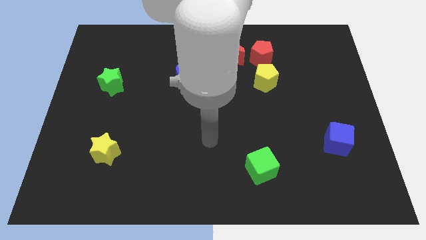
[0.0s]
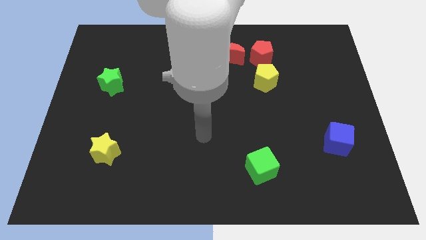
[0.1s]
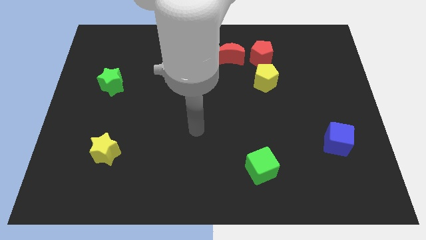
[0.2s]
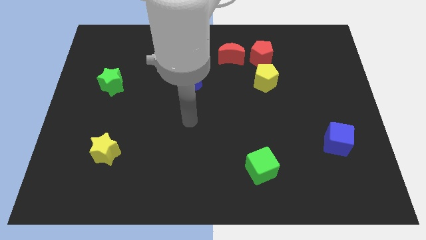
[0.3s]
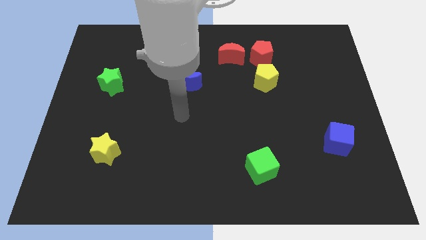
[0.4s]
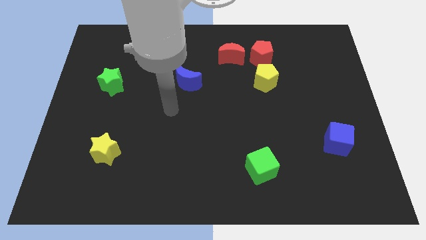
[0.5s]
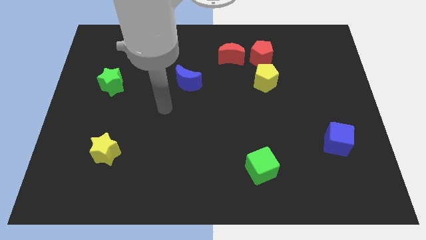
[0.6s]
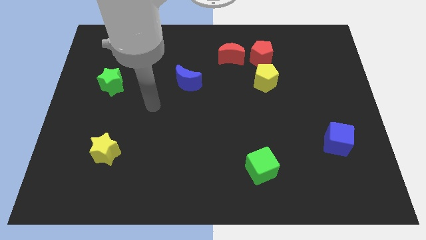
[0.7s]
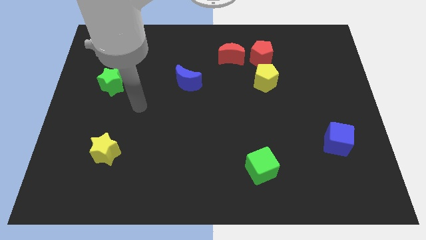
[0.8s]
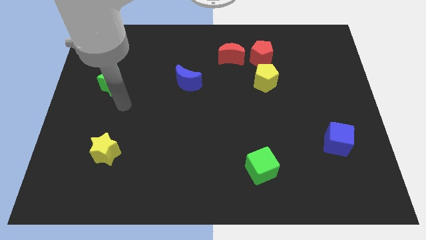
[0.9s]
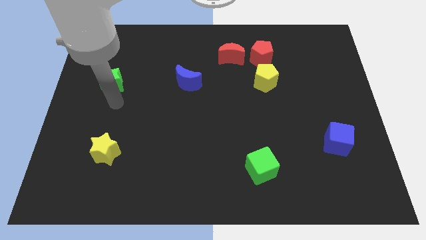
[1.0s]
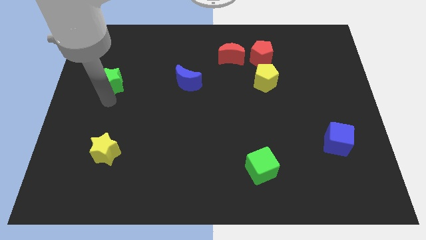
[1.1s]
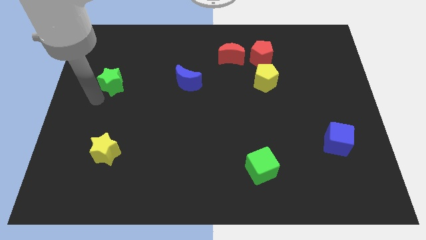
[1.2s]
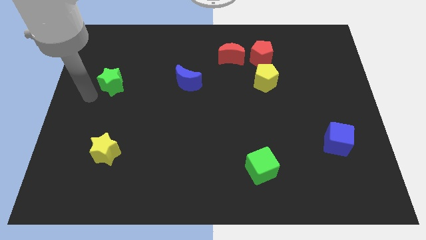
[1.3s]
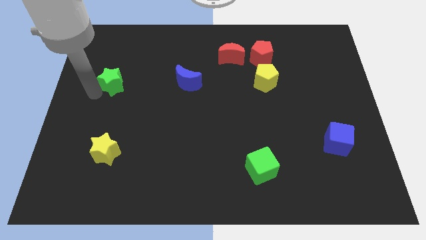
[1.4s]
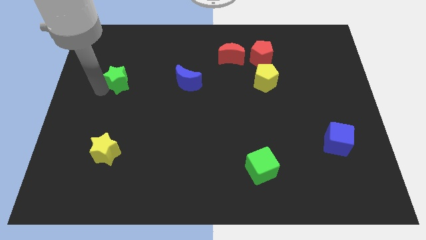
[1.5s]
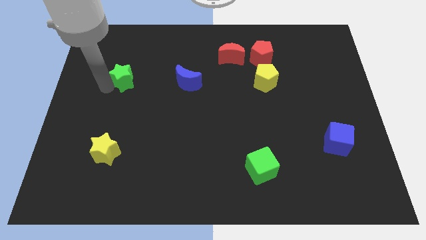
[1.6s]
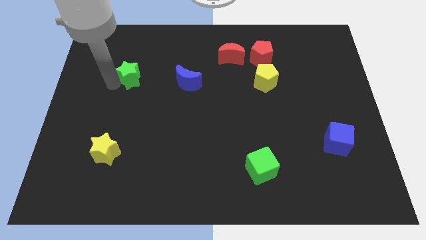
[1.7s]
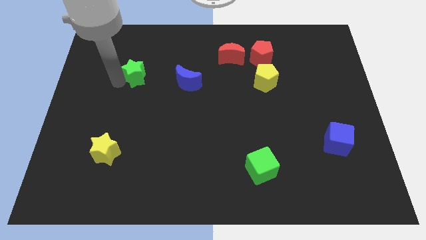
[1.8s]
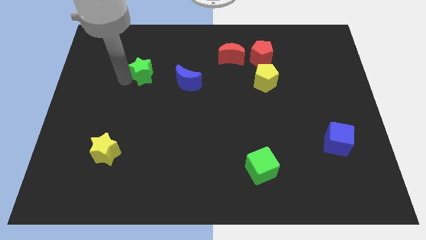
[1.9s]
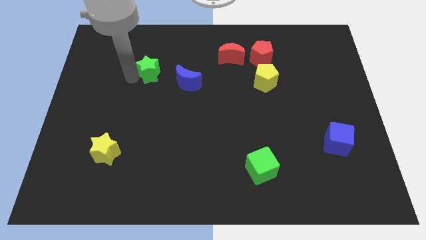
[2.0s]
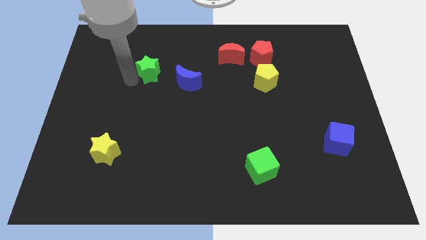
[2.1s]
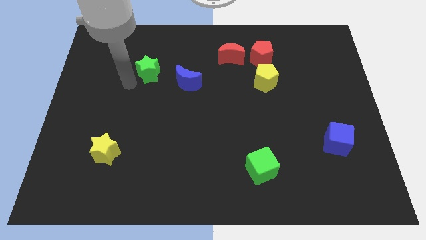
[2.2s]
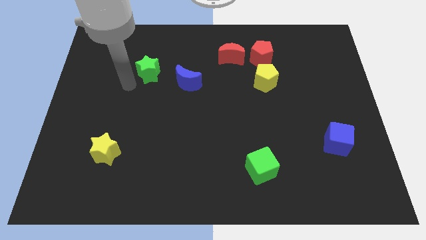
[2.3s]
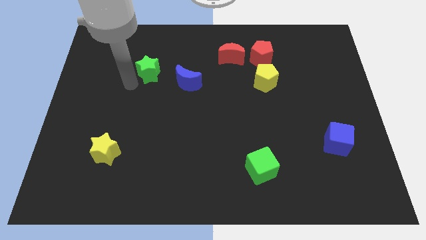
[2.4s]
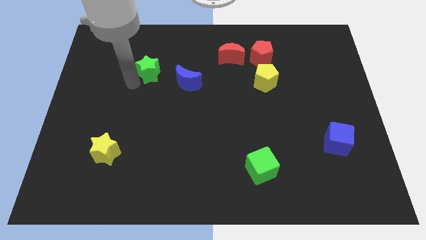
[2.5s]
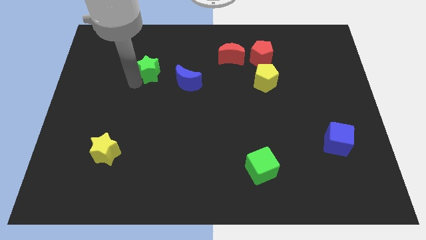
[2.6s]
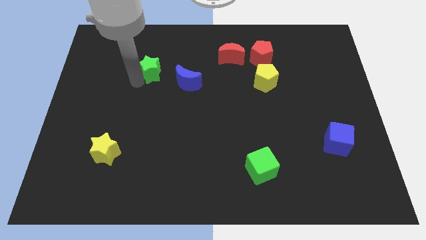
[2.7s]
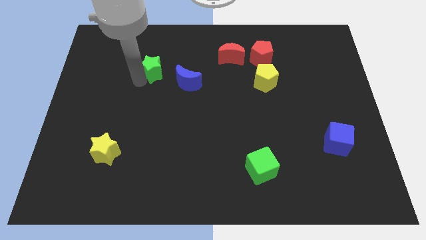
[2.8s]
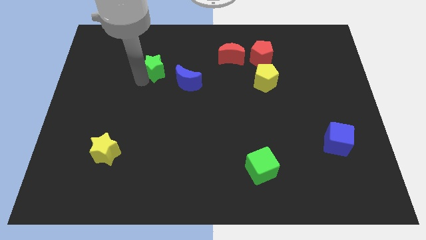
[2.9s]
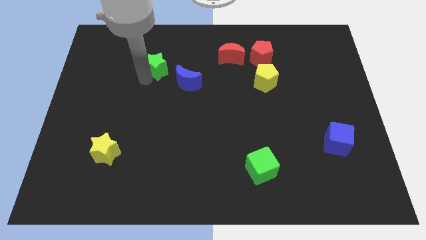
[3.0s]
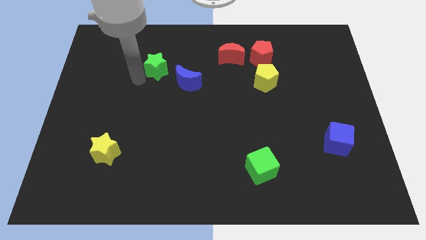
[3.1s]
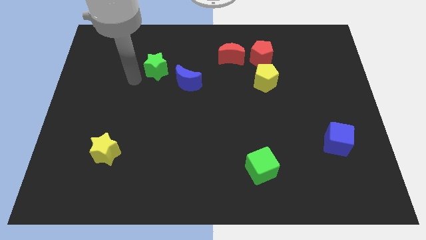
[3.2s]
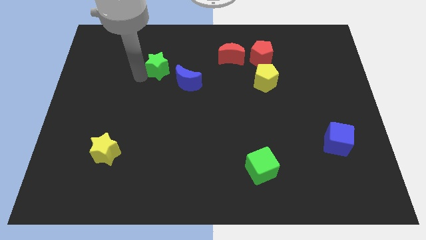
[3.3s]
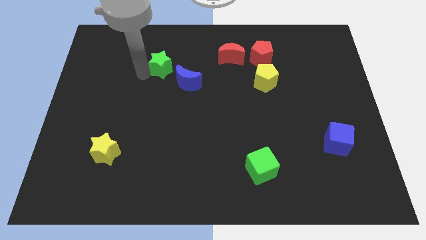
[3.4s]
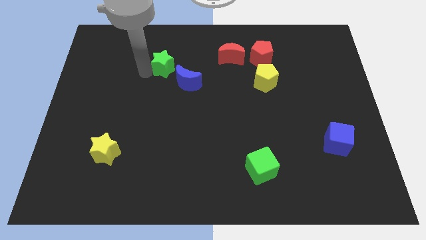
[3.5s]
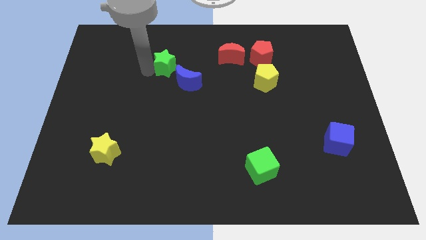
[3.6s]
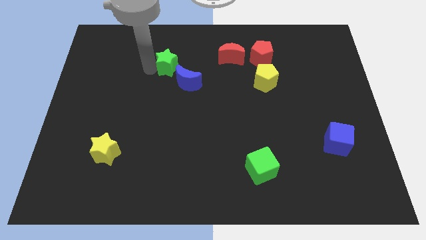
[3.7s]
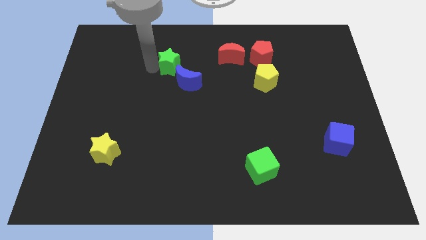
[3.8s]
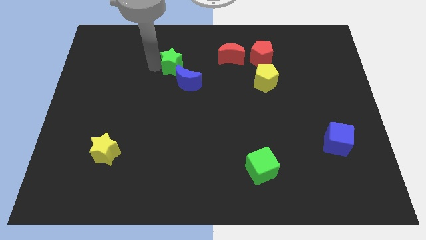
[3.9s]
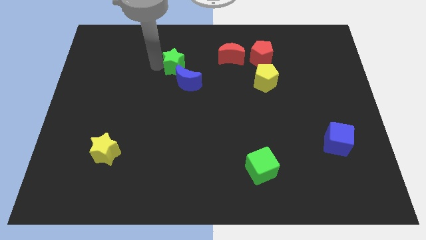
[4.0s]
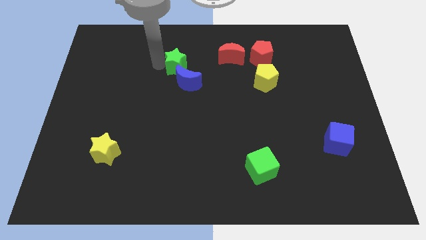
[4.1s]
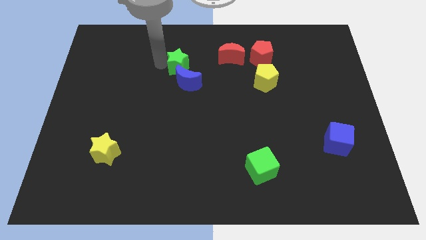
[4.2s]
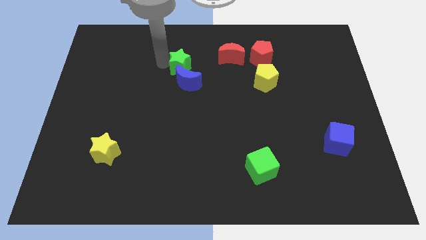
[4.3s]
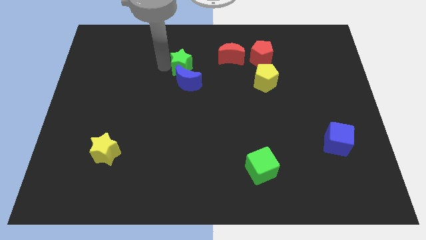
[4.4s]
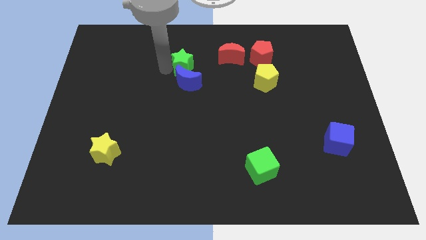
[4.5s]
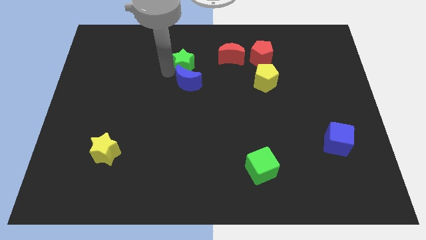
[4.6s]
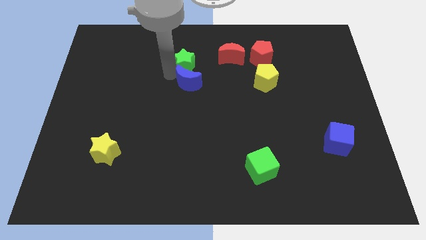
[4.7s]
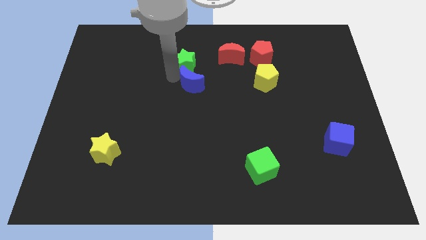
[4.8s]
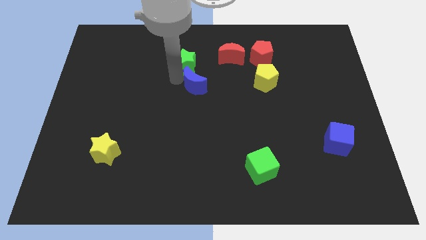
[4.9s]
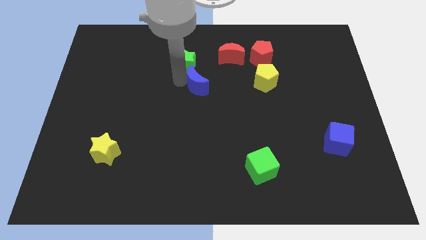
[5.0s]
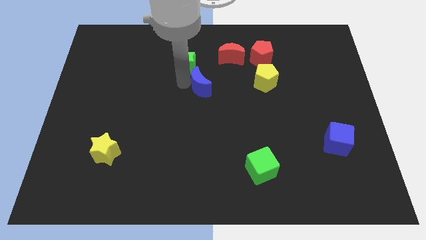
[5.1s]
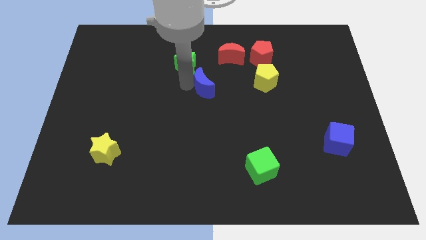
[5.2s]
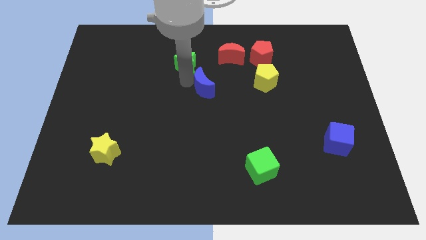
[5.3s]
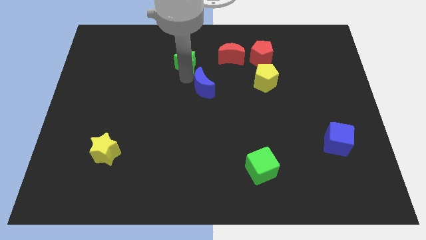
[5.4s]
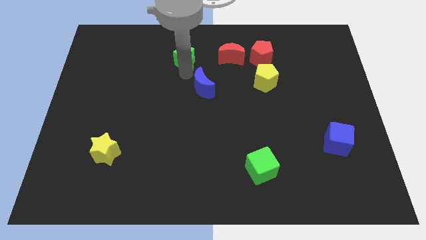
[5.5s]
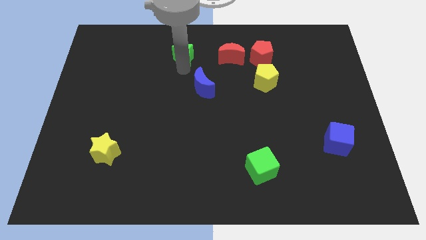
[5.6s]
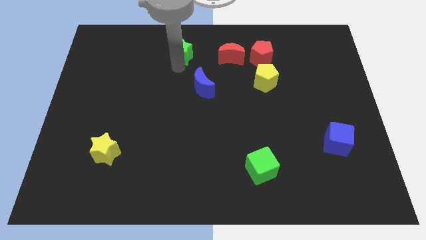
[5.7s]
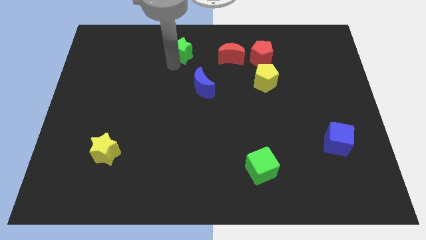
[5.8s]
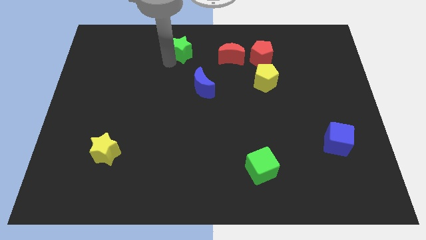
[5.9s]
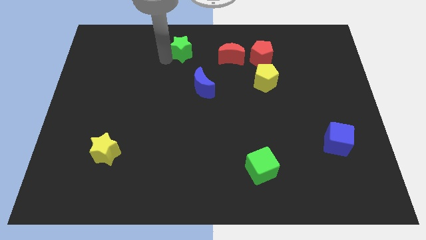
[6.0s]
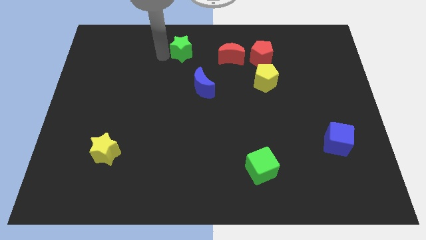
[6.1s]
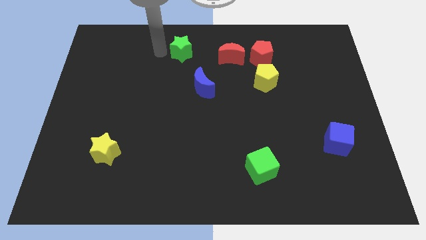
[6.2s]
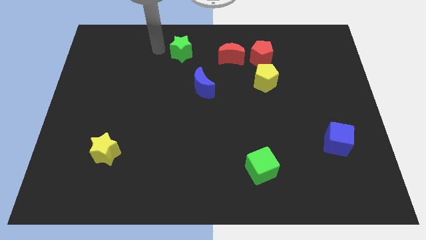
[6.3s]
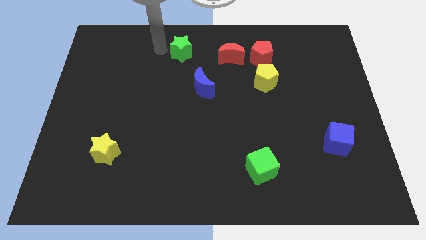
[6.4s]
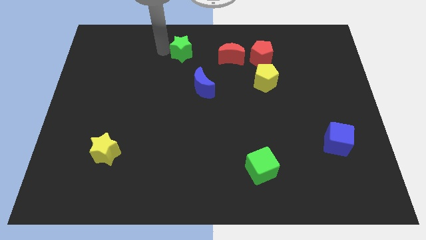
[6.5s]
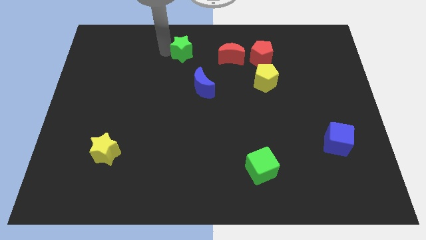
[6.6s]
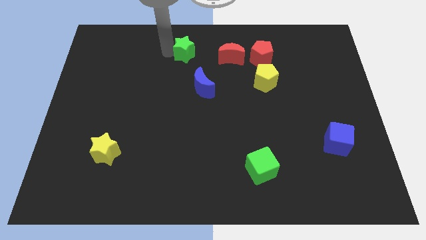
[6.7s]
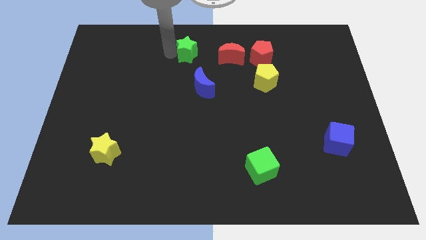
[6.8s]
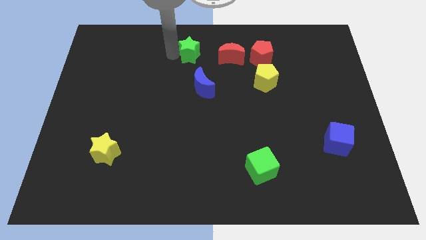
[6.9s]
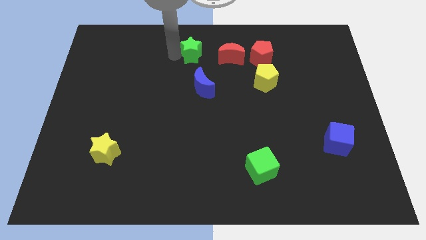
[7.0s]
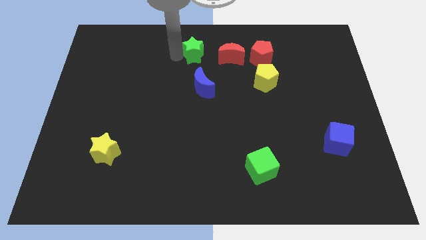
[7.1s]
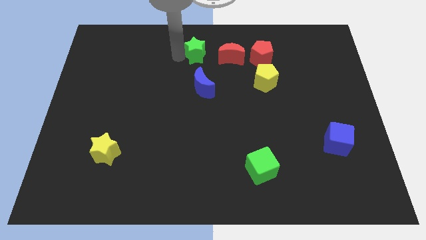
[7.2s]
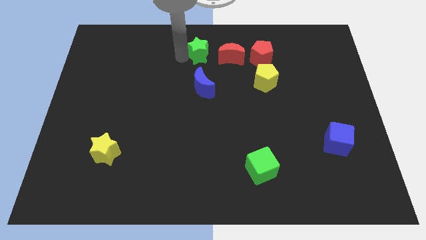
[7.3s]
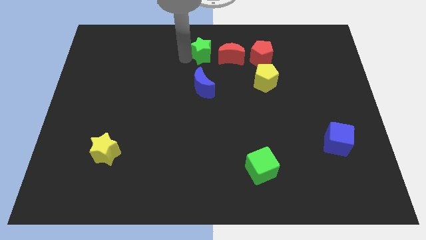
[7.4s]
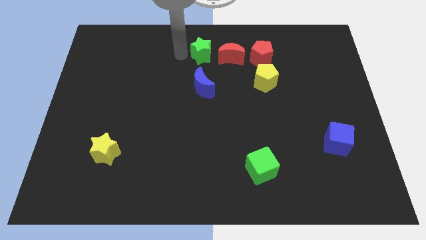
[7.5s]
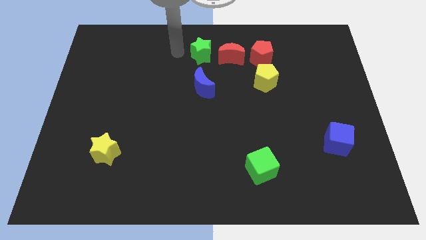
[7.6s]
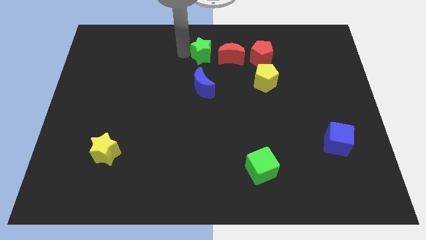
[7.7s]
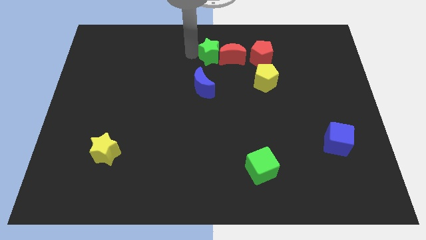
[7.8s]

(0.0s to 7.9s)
put the green star towards the red moon

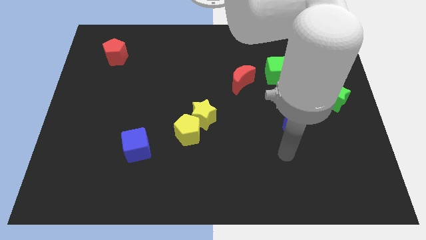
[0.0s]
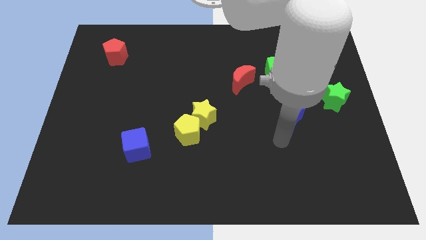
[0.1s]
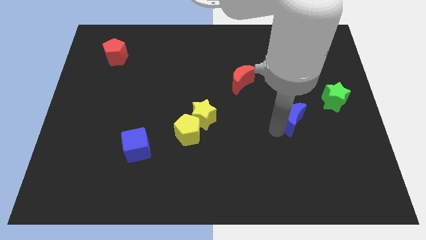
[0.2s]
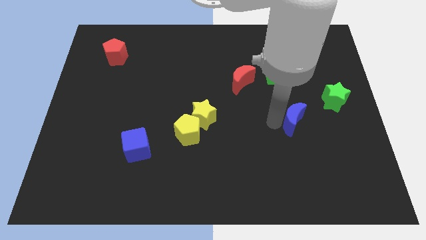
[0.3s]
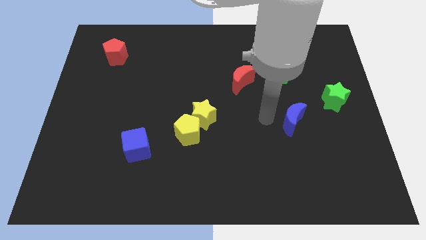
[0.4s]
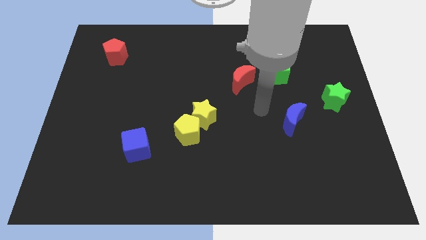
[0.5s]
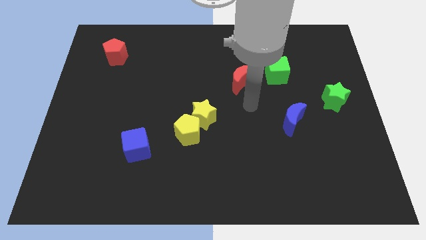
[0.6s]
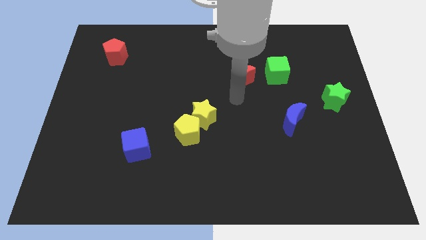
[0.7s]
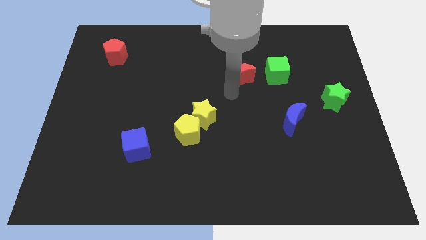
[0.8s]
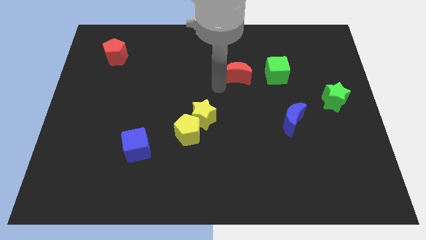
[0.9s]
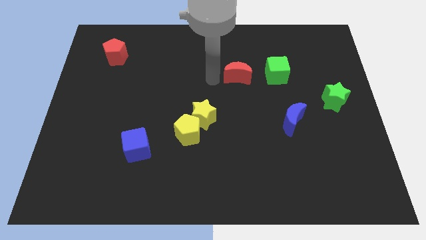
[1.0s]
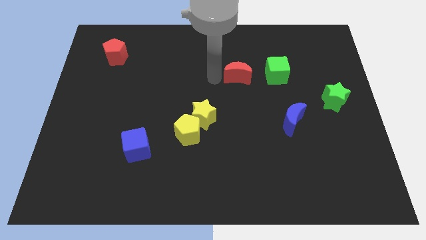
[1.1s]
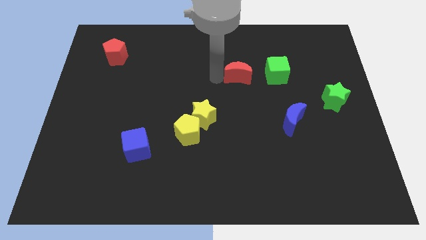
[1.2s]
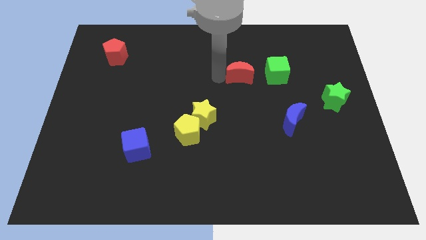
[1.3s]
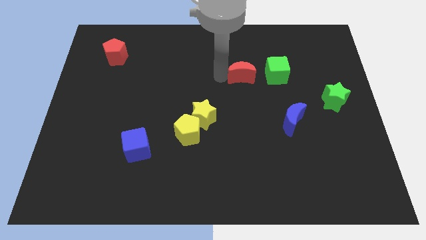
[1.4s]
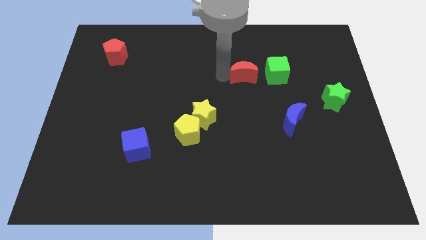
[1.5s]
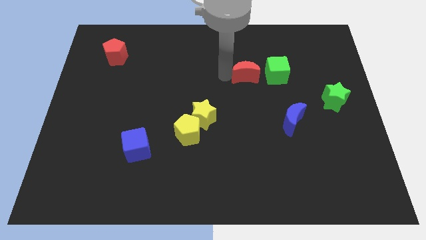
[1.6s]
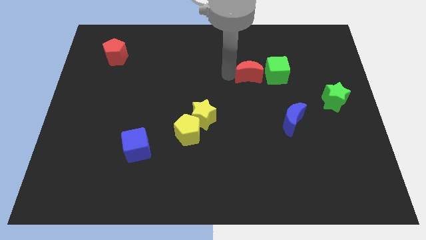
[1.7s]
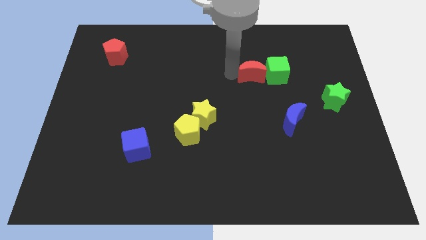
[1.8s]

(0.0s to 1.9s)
slide the red moon next to the green cube
